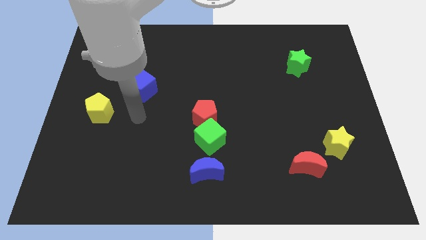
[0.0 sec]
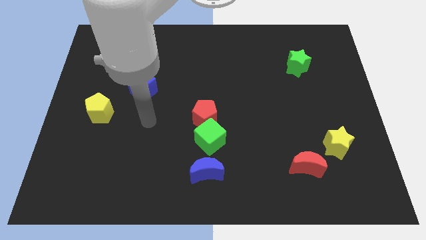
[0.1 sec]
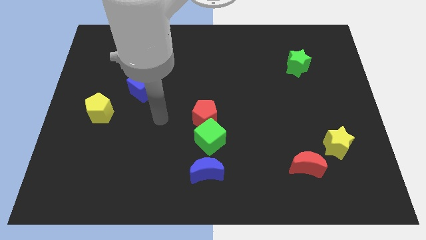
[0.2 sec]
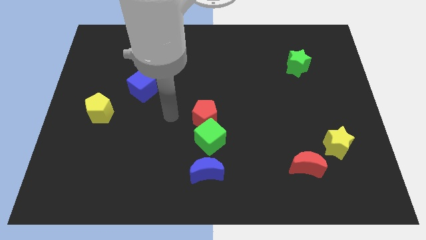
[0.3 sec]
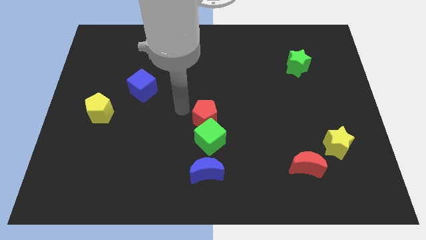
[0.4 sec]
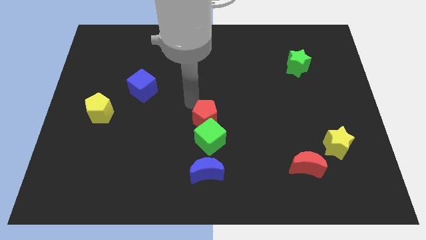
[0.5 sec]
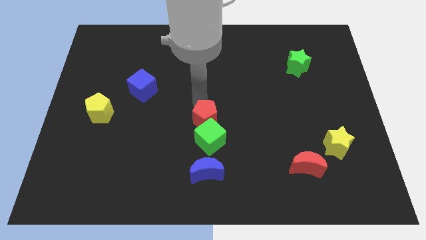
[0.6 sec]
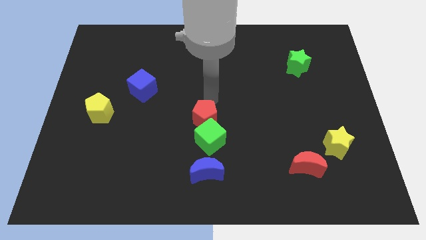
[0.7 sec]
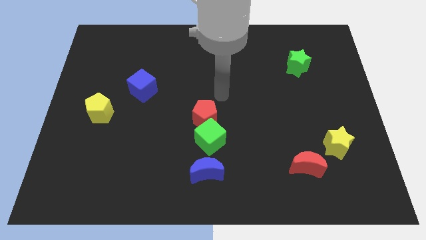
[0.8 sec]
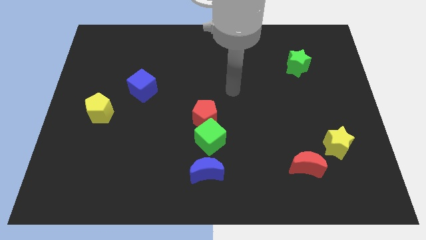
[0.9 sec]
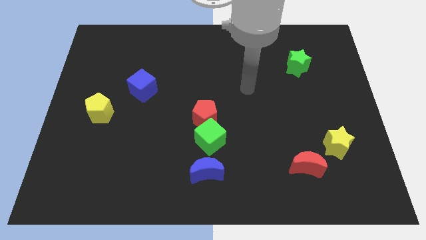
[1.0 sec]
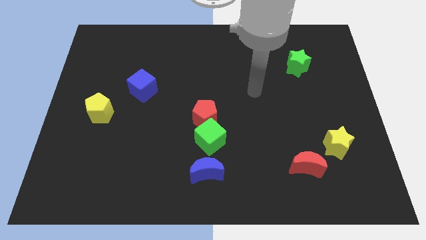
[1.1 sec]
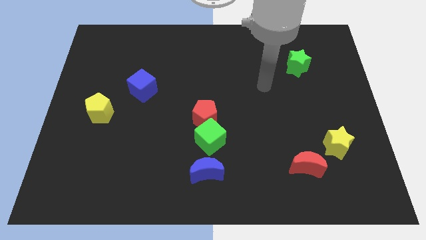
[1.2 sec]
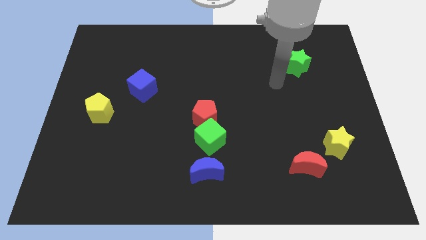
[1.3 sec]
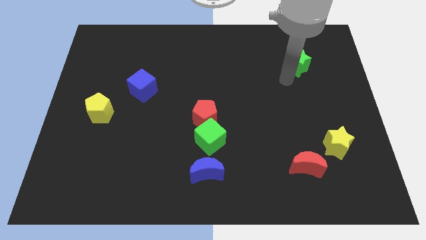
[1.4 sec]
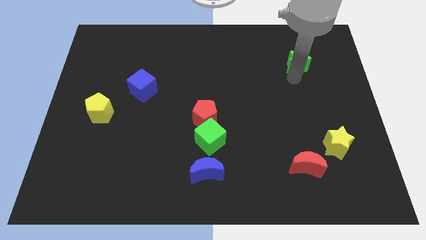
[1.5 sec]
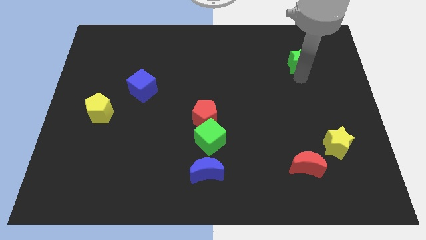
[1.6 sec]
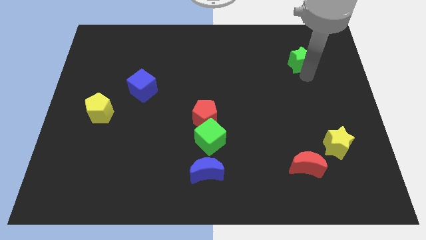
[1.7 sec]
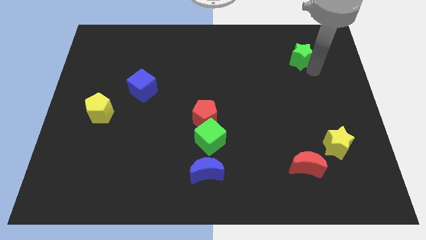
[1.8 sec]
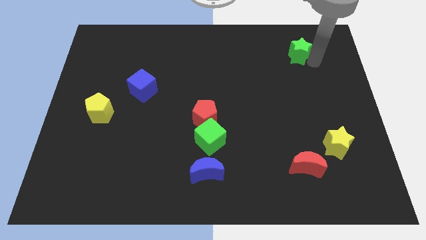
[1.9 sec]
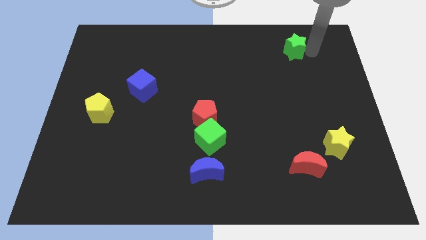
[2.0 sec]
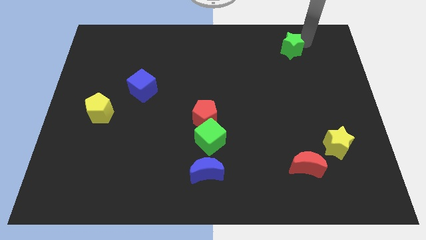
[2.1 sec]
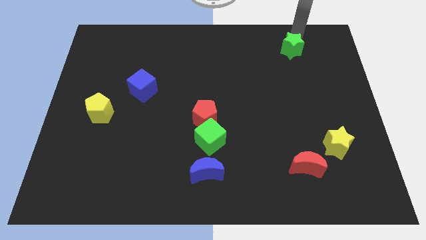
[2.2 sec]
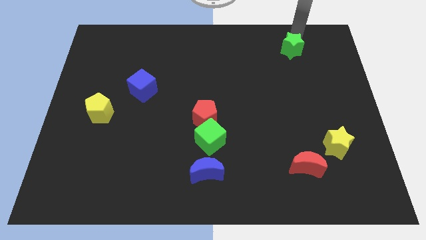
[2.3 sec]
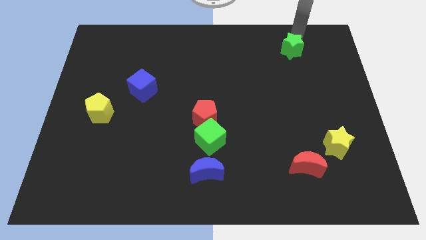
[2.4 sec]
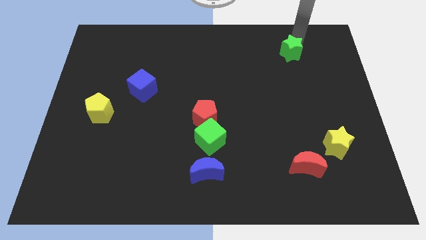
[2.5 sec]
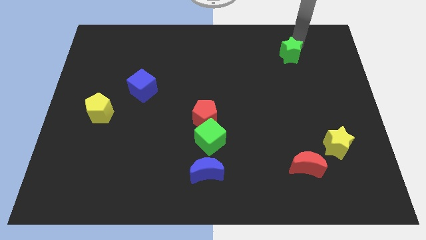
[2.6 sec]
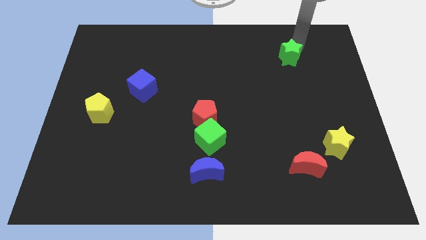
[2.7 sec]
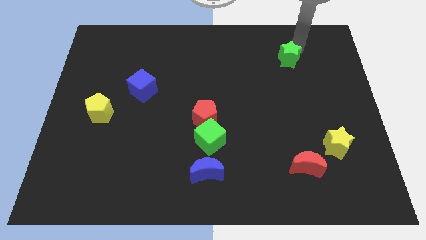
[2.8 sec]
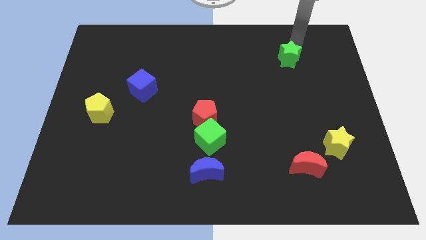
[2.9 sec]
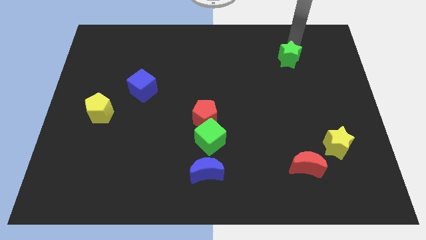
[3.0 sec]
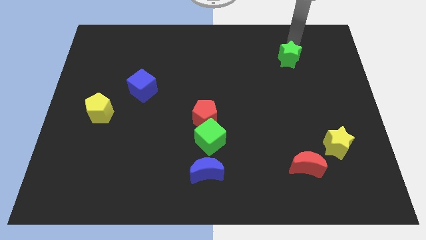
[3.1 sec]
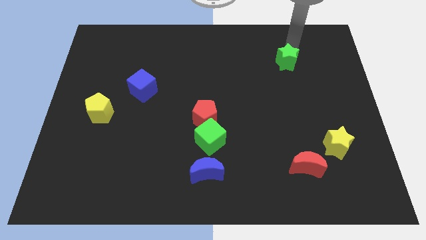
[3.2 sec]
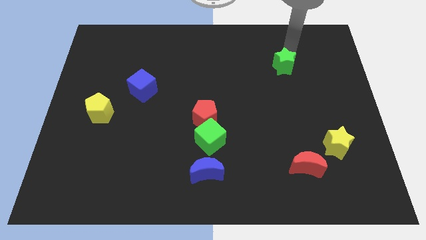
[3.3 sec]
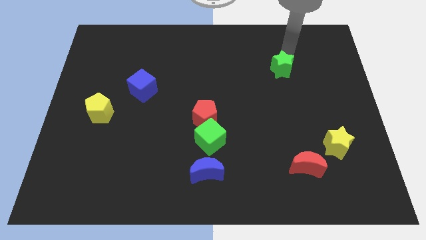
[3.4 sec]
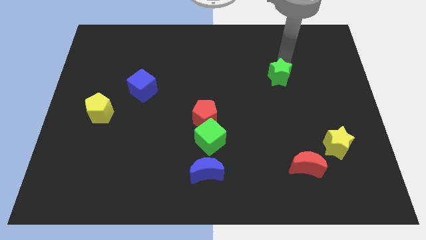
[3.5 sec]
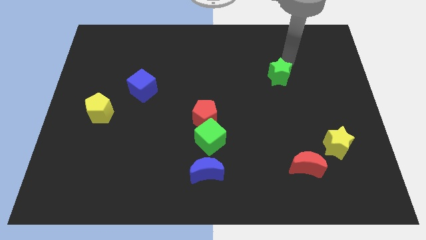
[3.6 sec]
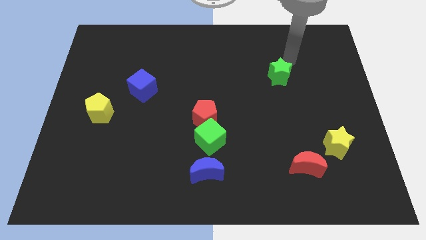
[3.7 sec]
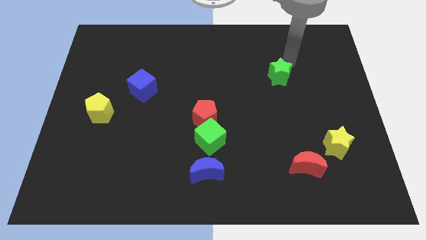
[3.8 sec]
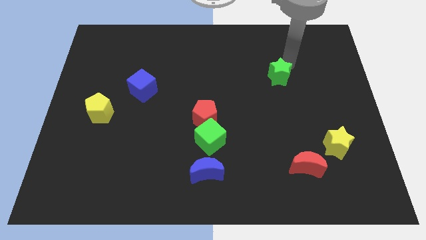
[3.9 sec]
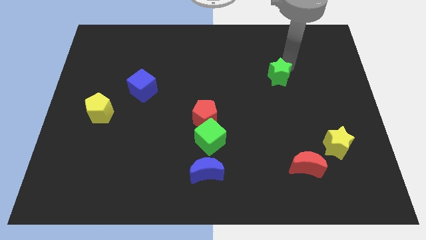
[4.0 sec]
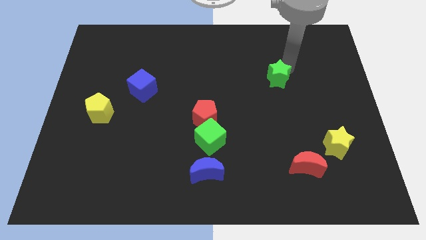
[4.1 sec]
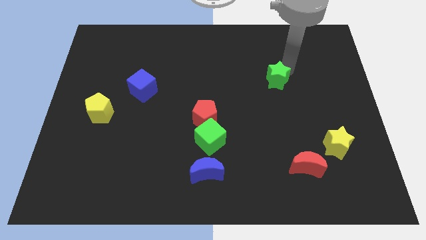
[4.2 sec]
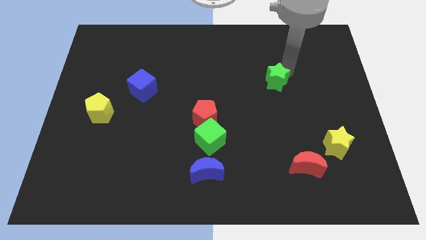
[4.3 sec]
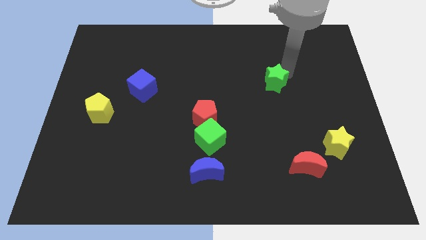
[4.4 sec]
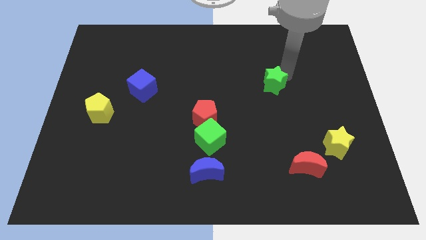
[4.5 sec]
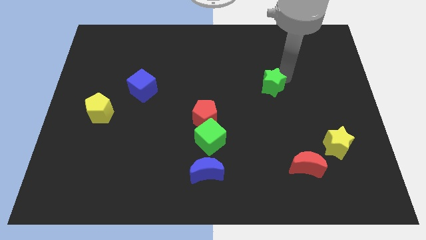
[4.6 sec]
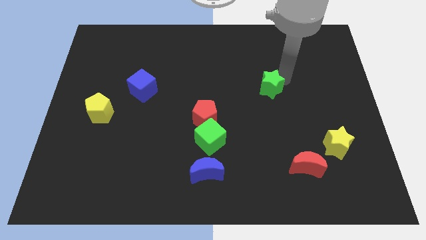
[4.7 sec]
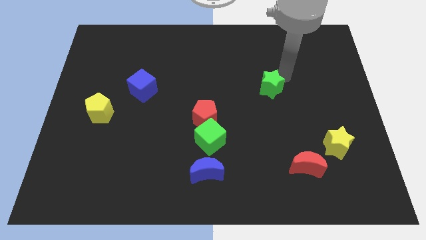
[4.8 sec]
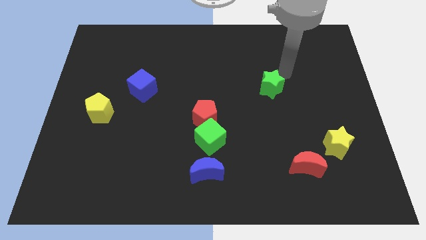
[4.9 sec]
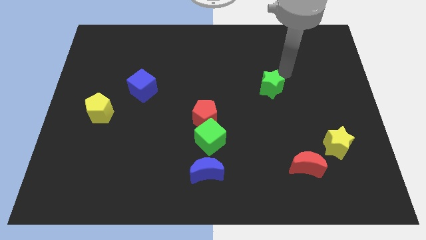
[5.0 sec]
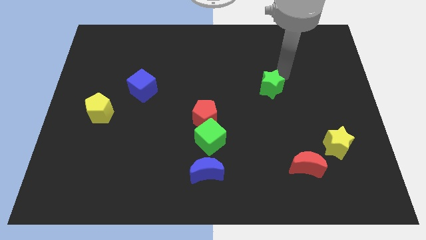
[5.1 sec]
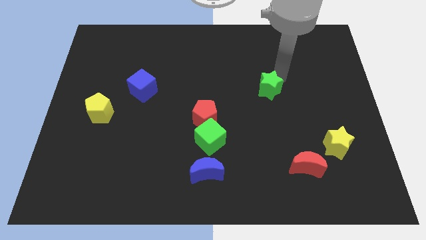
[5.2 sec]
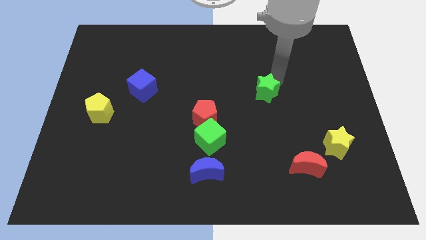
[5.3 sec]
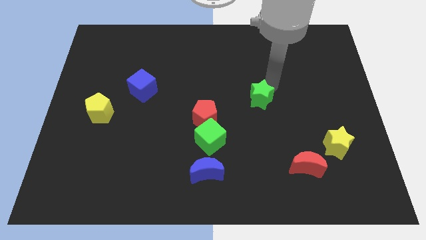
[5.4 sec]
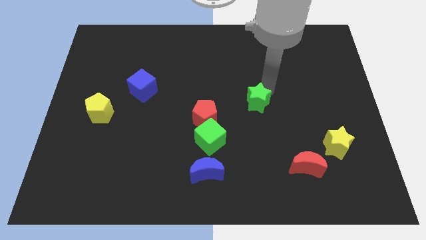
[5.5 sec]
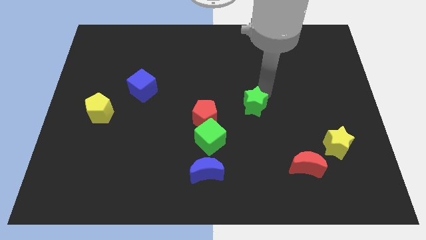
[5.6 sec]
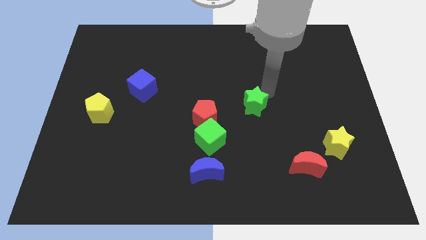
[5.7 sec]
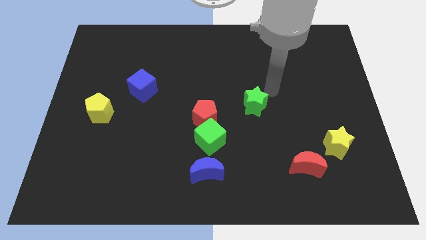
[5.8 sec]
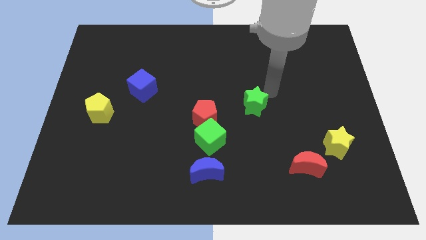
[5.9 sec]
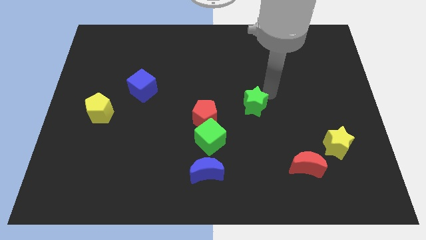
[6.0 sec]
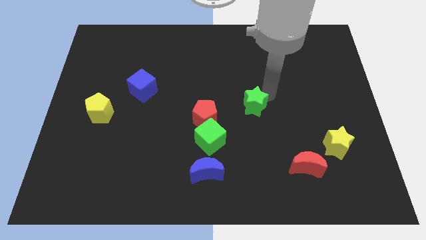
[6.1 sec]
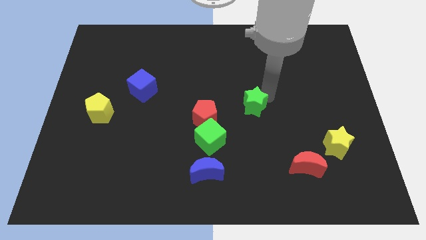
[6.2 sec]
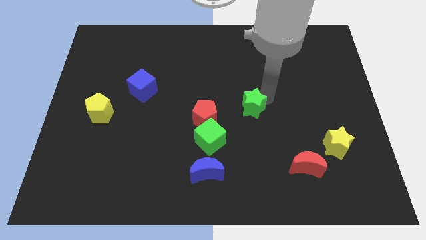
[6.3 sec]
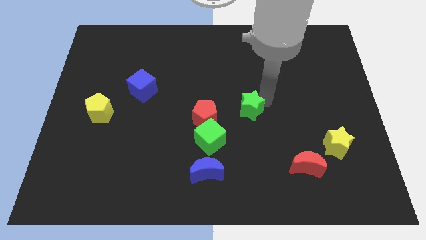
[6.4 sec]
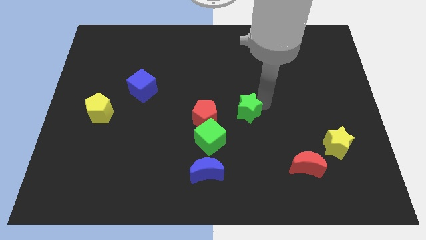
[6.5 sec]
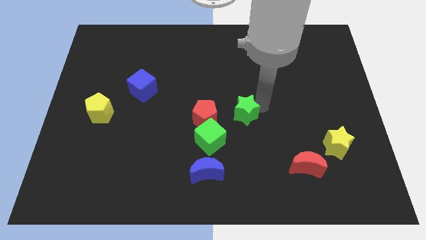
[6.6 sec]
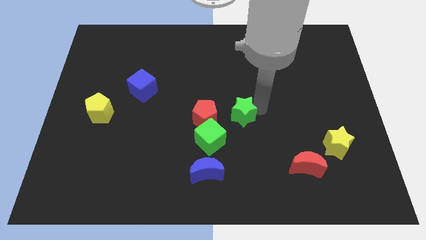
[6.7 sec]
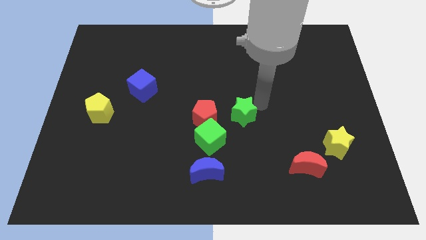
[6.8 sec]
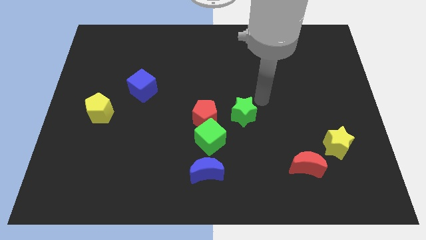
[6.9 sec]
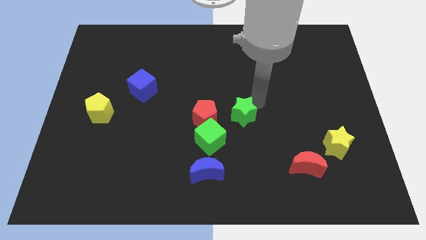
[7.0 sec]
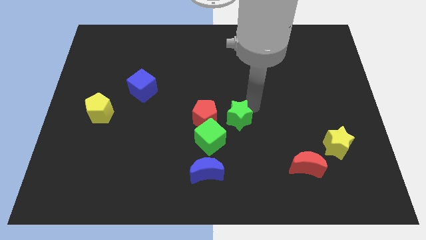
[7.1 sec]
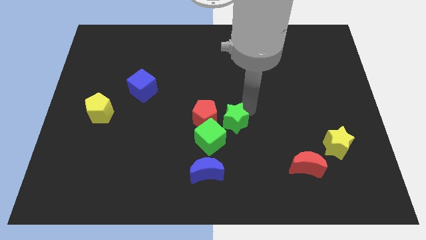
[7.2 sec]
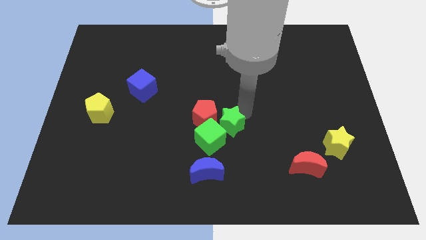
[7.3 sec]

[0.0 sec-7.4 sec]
slide the green star close to the green cube
